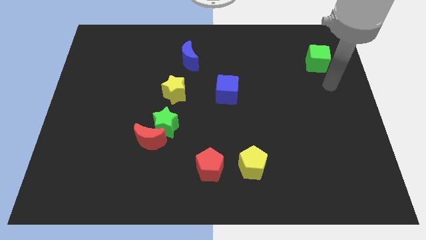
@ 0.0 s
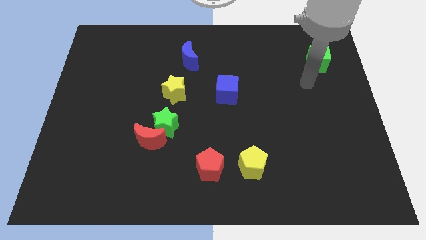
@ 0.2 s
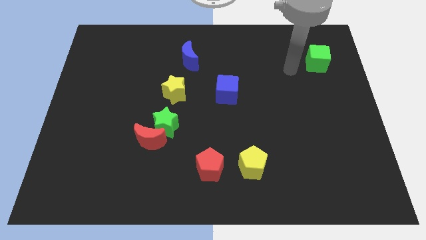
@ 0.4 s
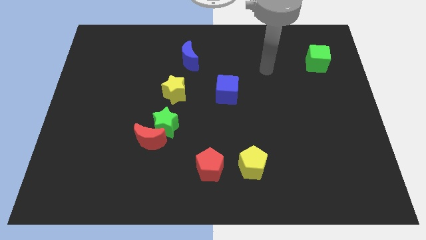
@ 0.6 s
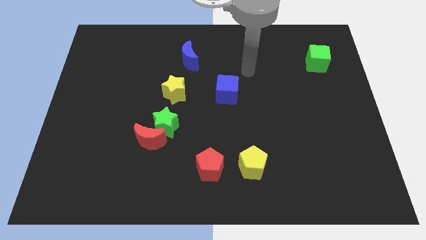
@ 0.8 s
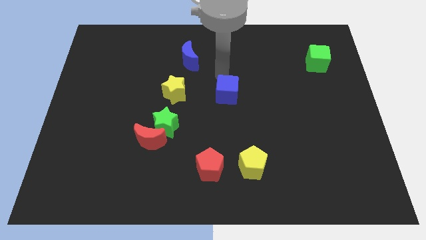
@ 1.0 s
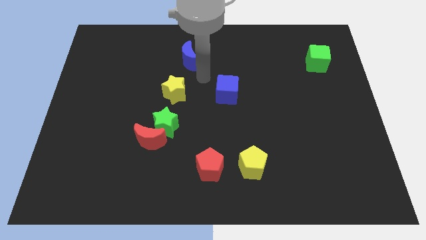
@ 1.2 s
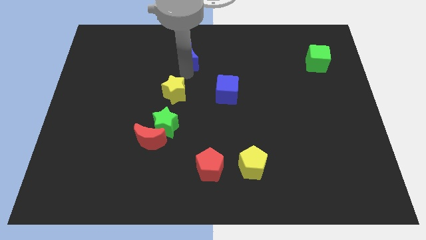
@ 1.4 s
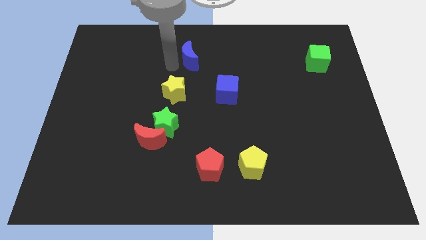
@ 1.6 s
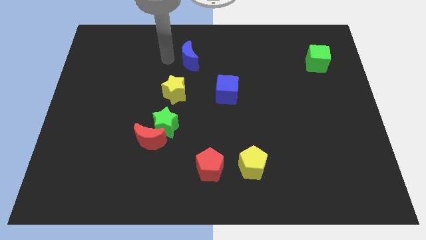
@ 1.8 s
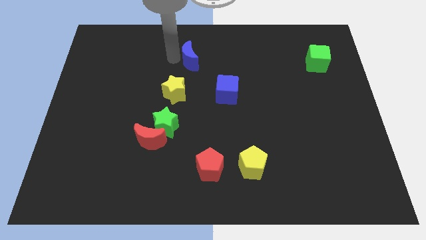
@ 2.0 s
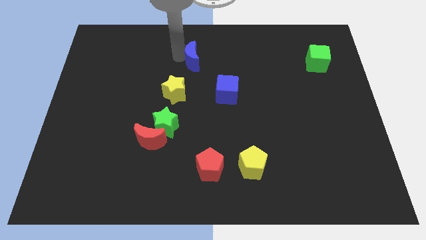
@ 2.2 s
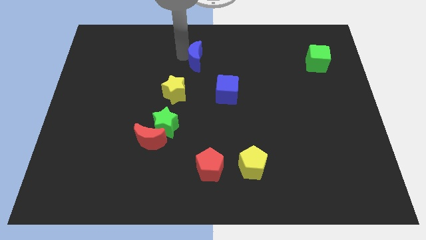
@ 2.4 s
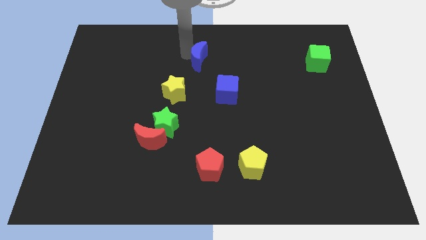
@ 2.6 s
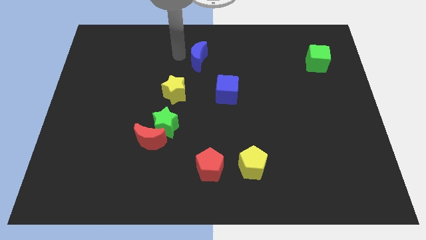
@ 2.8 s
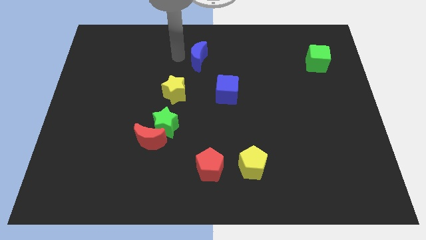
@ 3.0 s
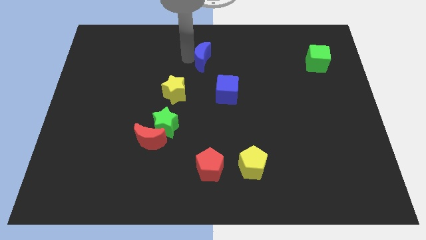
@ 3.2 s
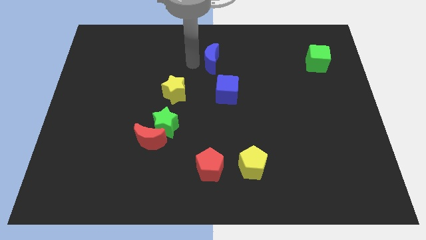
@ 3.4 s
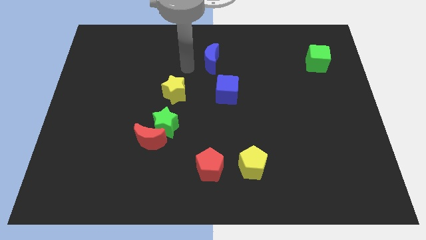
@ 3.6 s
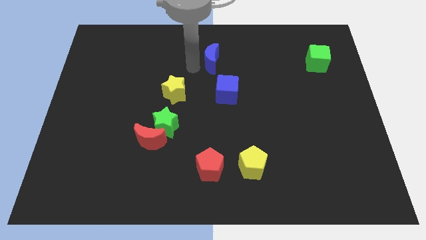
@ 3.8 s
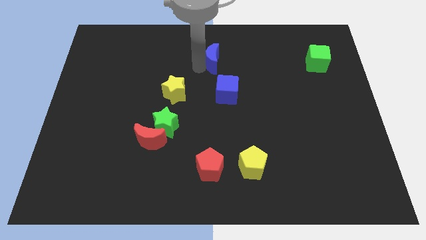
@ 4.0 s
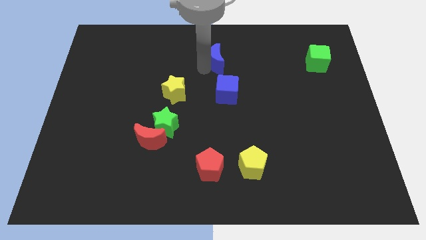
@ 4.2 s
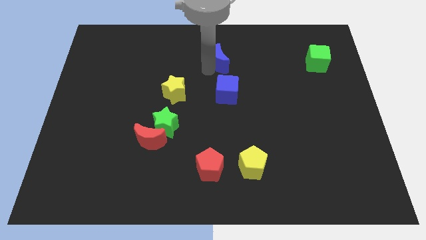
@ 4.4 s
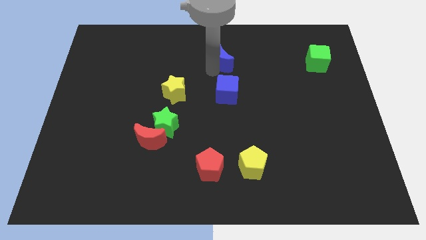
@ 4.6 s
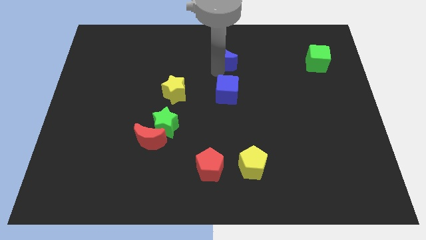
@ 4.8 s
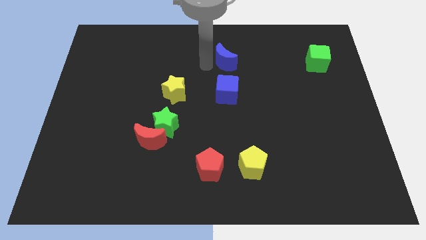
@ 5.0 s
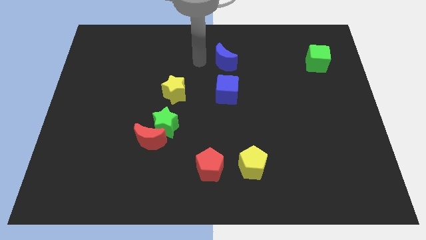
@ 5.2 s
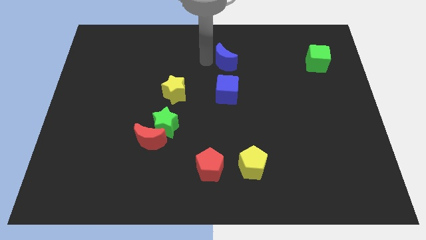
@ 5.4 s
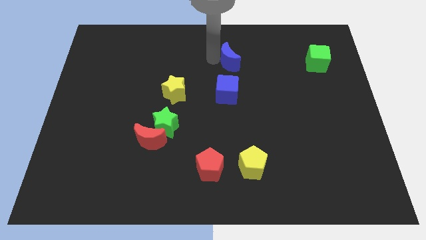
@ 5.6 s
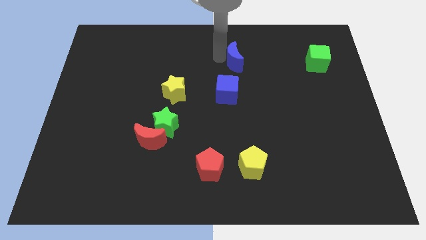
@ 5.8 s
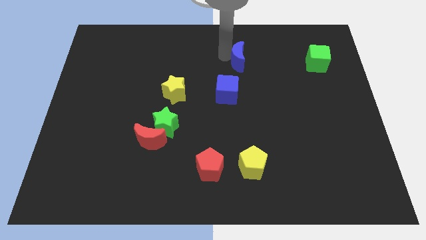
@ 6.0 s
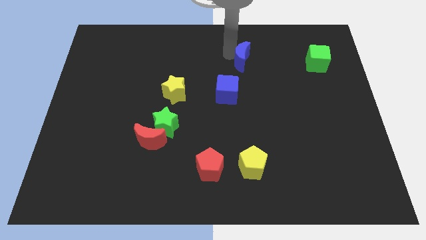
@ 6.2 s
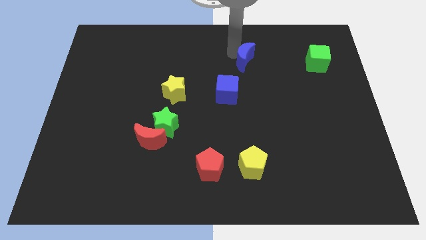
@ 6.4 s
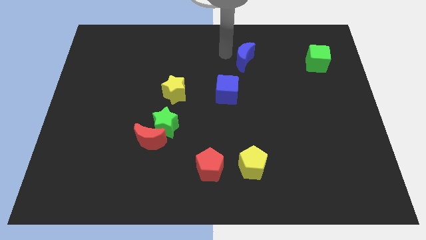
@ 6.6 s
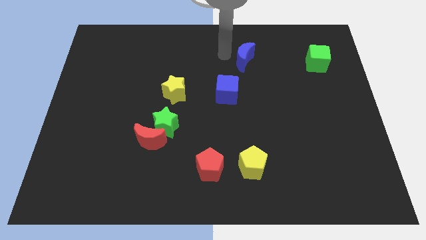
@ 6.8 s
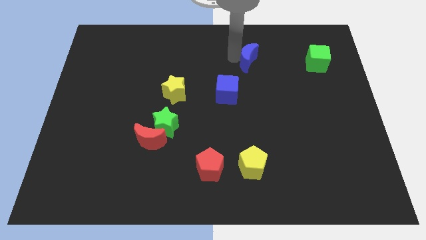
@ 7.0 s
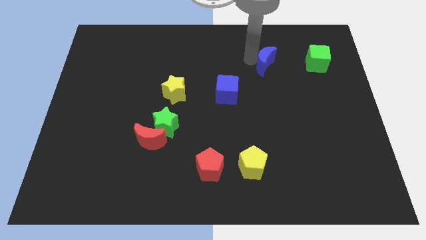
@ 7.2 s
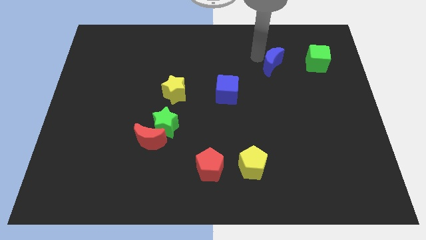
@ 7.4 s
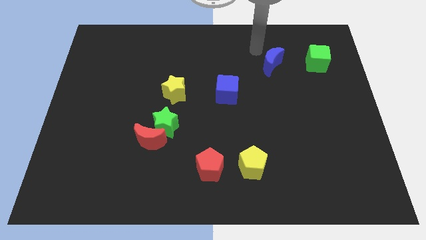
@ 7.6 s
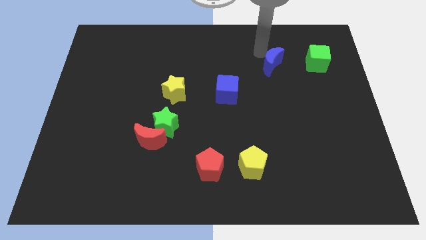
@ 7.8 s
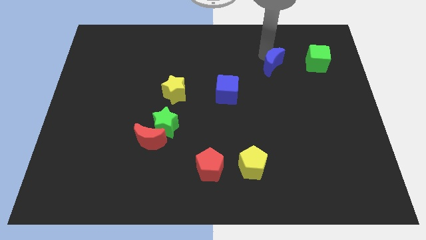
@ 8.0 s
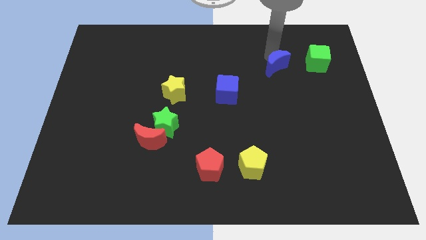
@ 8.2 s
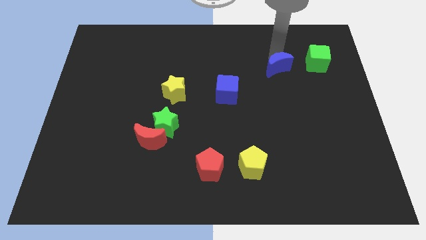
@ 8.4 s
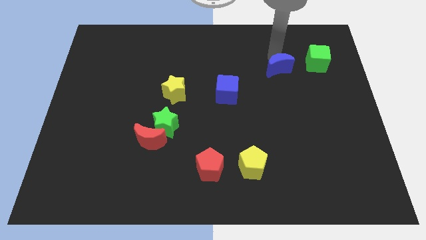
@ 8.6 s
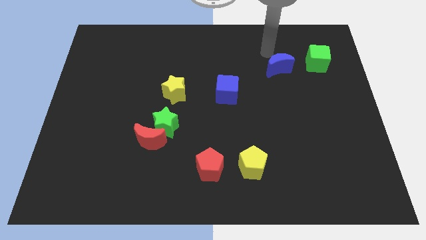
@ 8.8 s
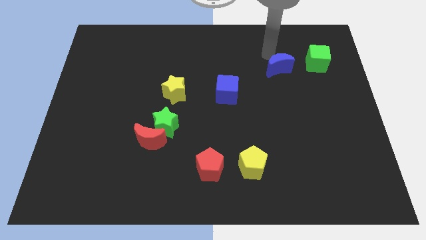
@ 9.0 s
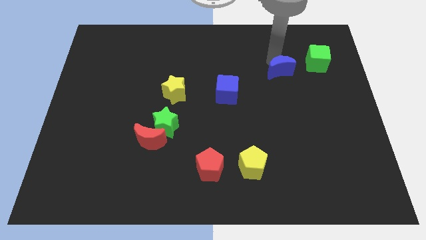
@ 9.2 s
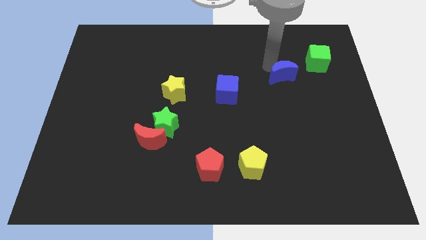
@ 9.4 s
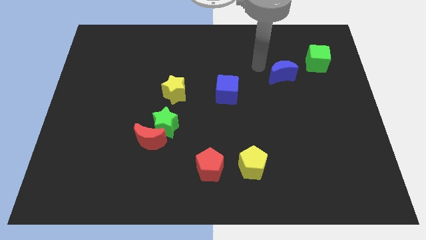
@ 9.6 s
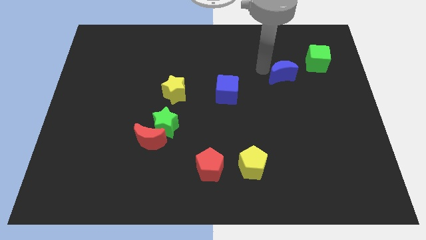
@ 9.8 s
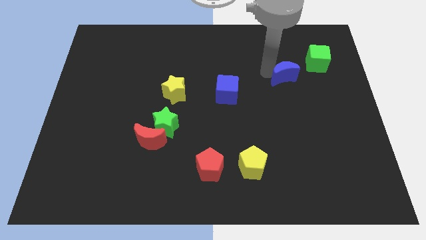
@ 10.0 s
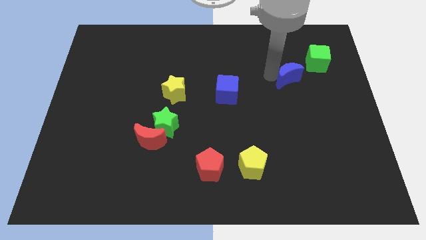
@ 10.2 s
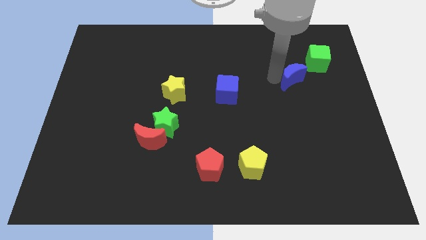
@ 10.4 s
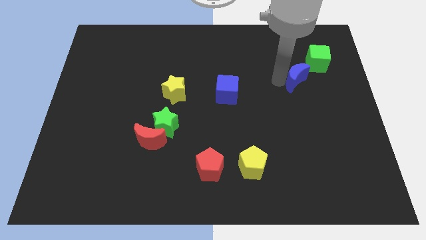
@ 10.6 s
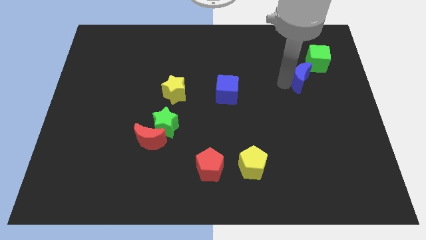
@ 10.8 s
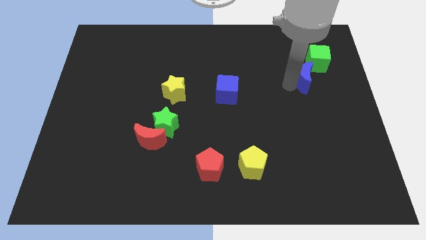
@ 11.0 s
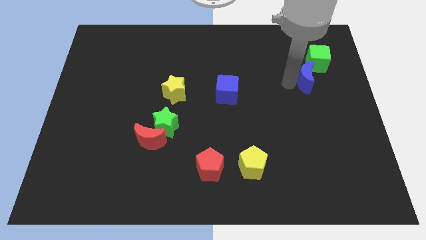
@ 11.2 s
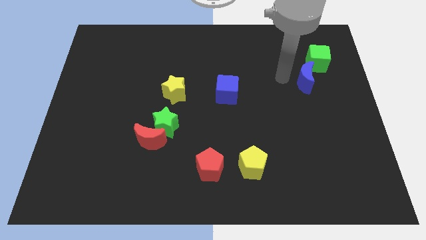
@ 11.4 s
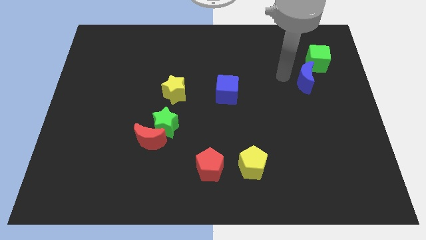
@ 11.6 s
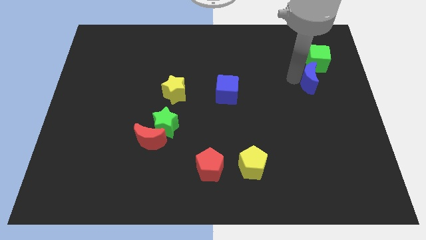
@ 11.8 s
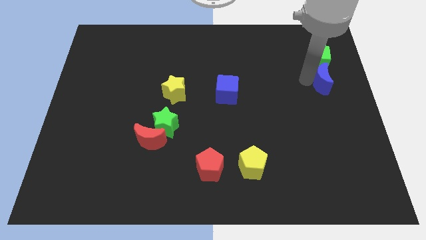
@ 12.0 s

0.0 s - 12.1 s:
put the blue moon to the right side
